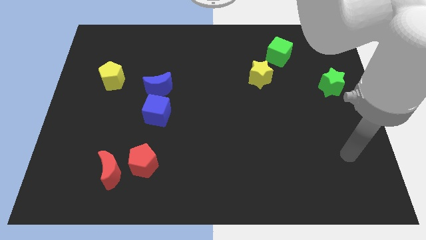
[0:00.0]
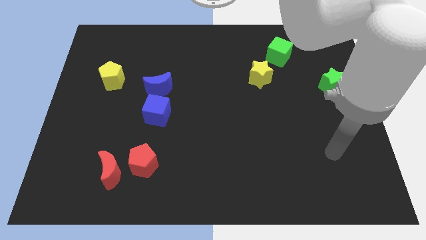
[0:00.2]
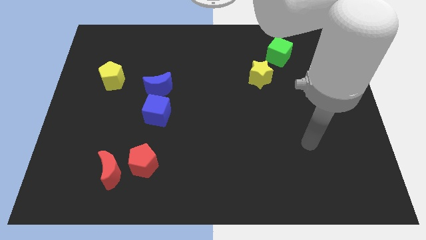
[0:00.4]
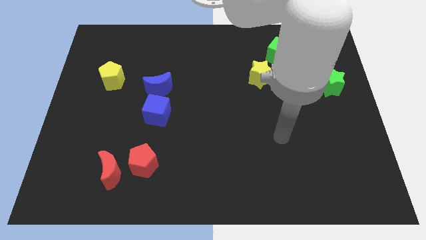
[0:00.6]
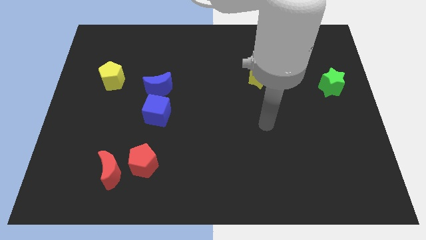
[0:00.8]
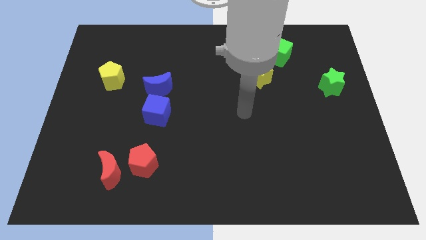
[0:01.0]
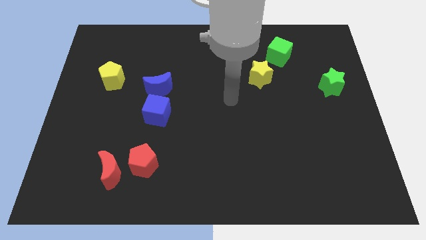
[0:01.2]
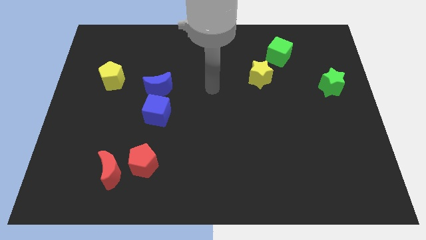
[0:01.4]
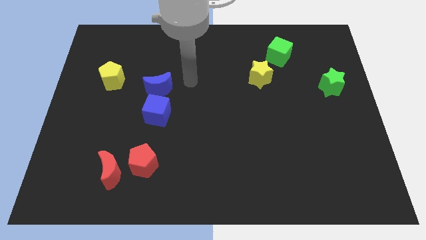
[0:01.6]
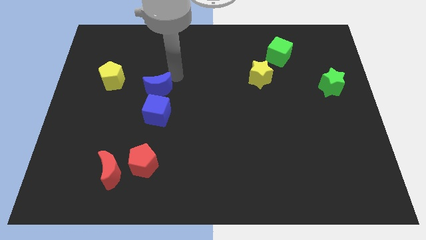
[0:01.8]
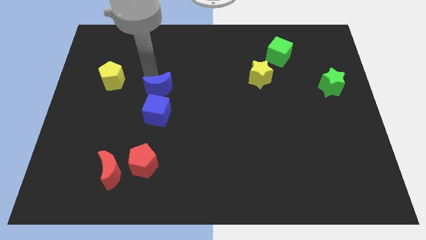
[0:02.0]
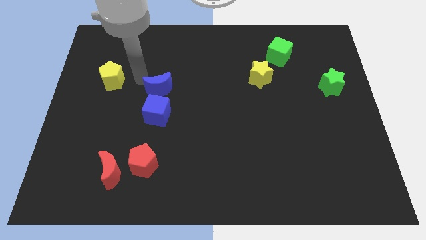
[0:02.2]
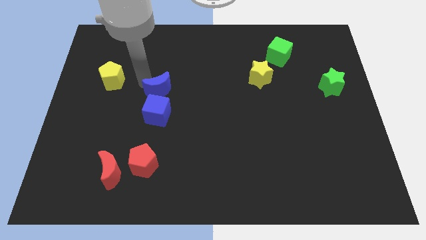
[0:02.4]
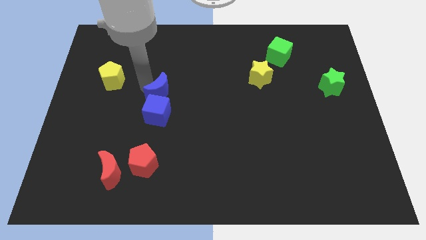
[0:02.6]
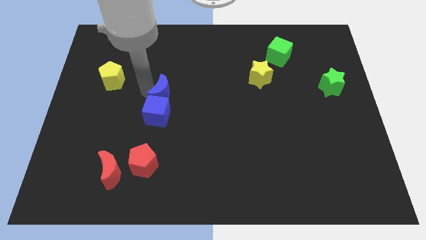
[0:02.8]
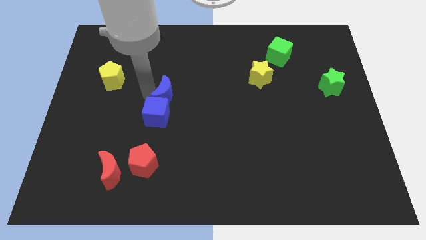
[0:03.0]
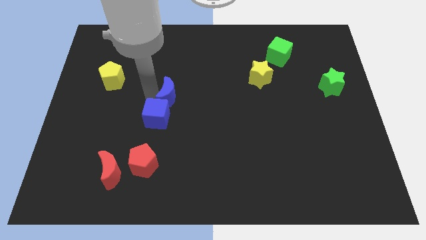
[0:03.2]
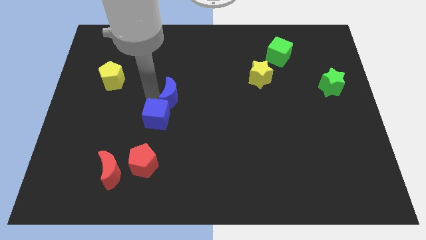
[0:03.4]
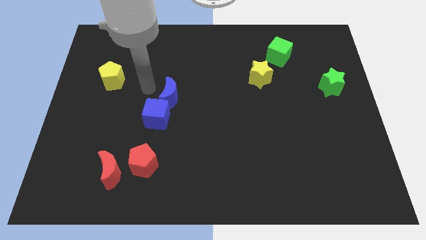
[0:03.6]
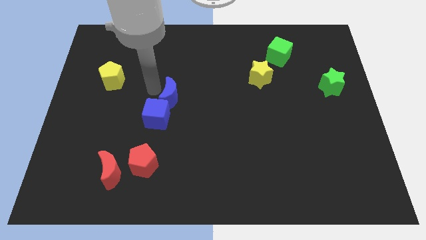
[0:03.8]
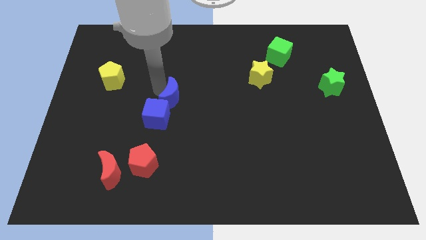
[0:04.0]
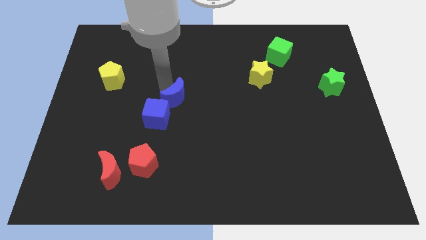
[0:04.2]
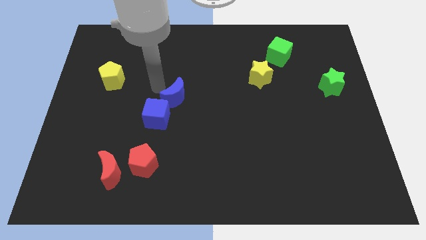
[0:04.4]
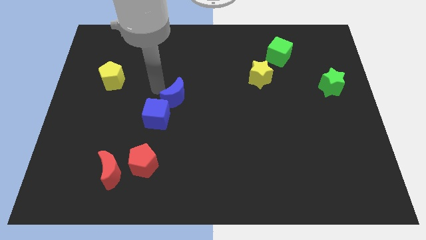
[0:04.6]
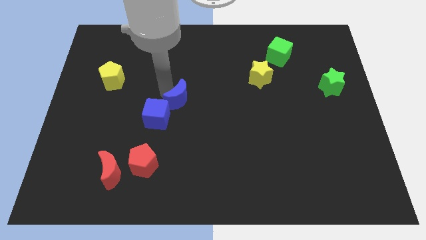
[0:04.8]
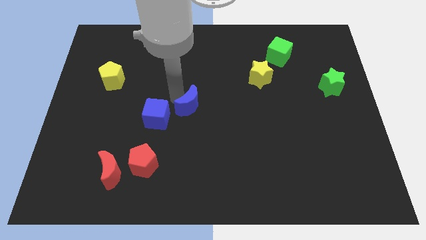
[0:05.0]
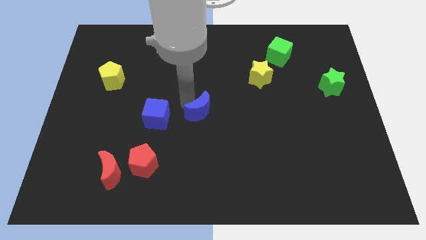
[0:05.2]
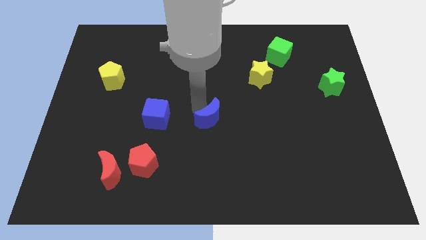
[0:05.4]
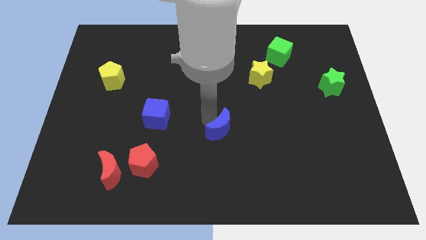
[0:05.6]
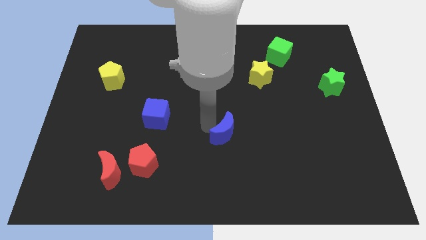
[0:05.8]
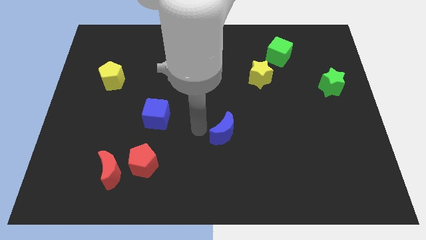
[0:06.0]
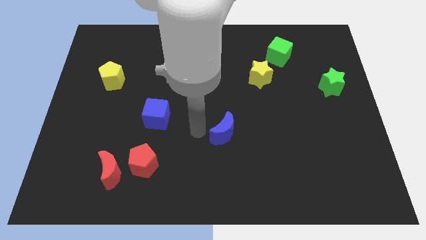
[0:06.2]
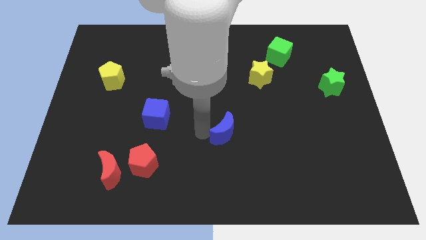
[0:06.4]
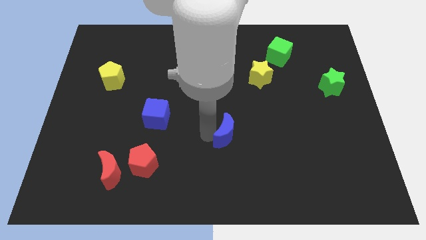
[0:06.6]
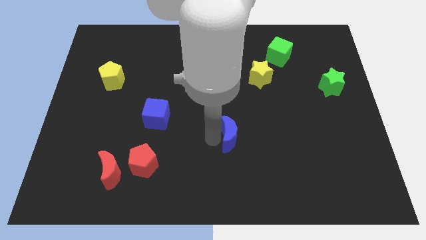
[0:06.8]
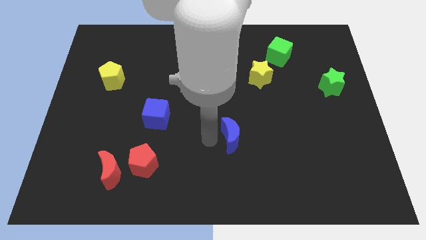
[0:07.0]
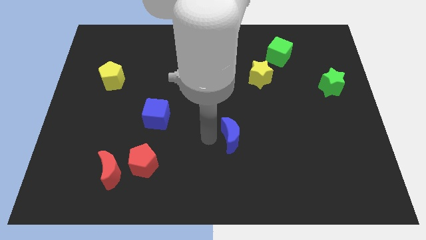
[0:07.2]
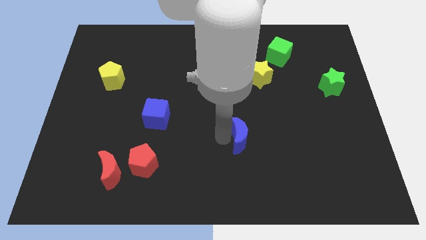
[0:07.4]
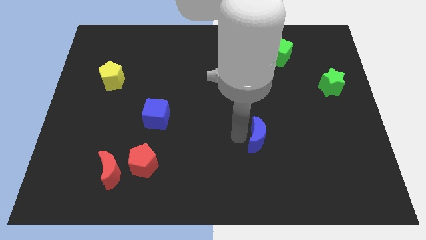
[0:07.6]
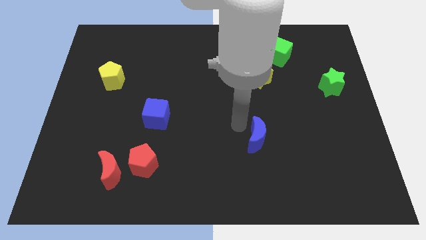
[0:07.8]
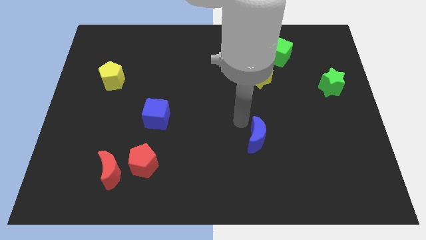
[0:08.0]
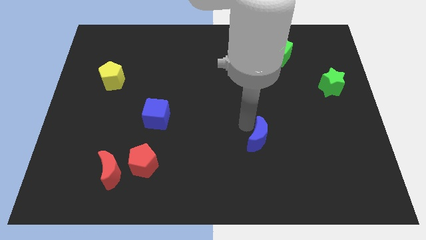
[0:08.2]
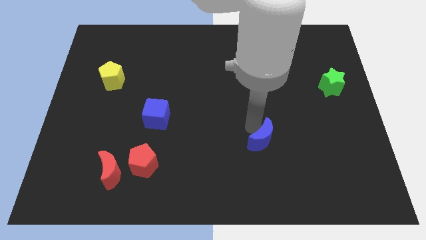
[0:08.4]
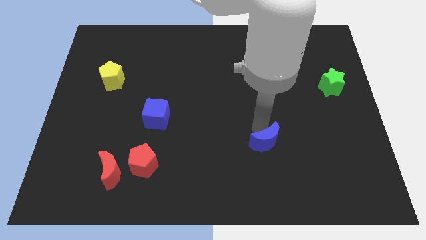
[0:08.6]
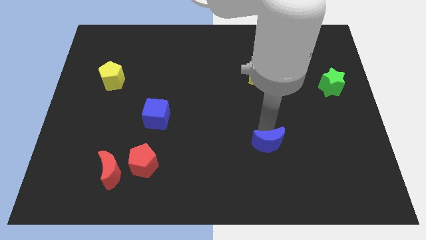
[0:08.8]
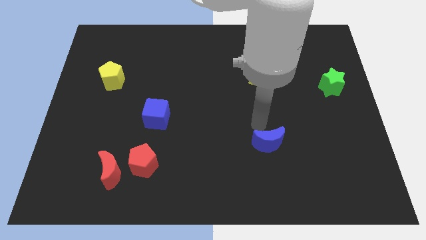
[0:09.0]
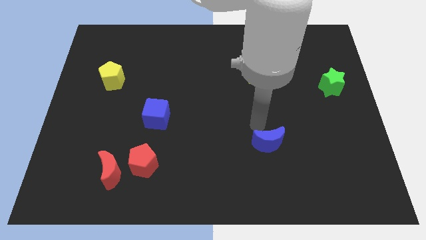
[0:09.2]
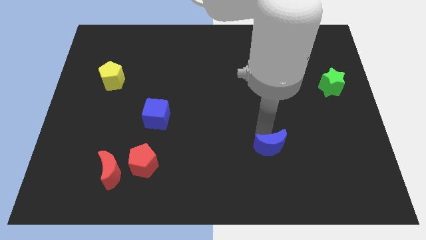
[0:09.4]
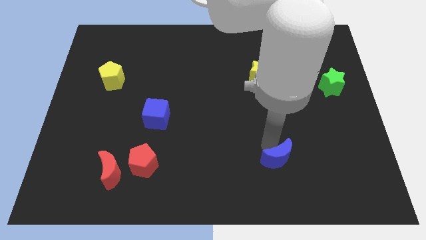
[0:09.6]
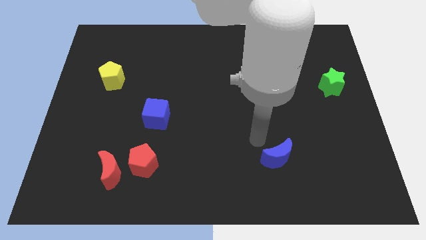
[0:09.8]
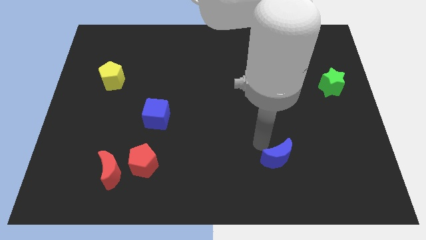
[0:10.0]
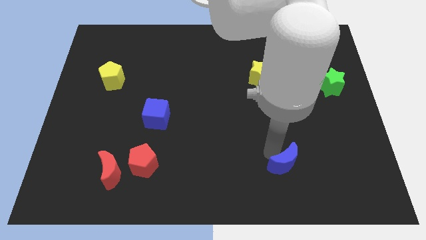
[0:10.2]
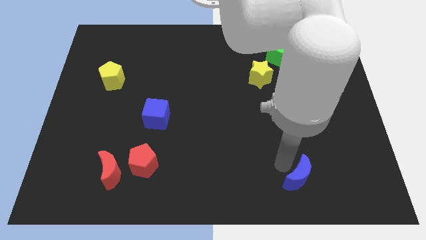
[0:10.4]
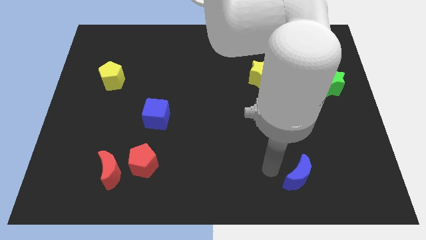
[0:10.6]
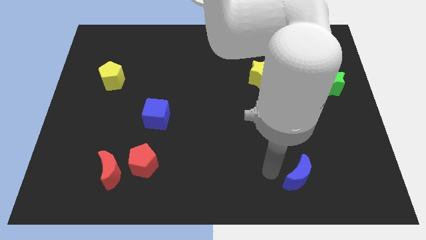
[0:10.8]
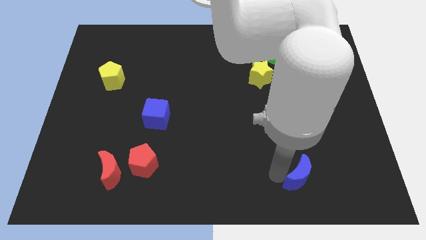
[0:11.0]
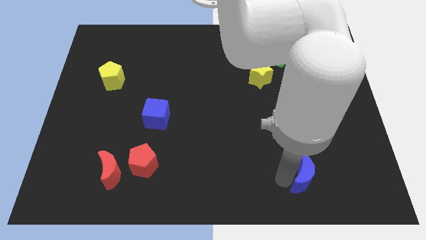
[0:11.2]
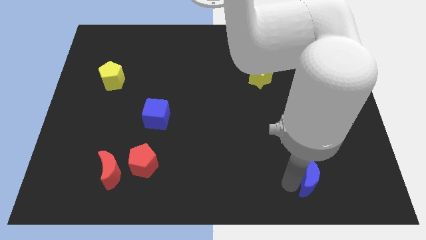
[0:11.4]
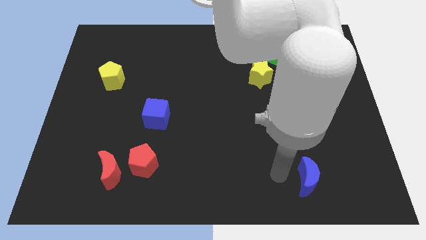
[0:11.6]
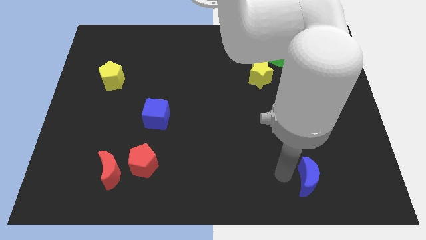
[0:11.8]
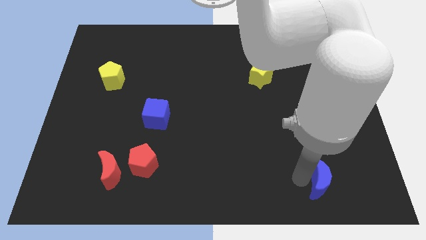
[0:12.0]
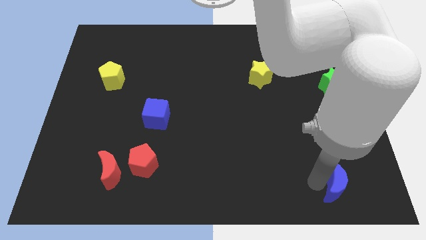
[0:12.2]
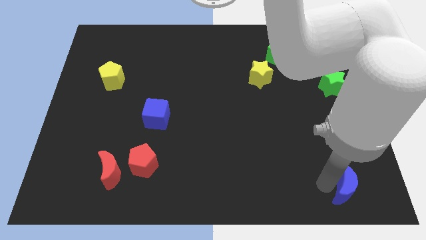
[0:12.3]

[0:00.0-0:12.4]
move the blue moon to the bottom right corner

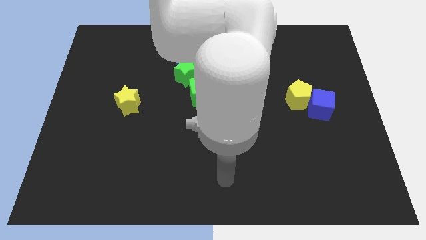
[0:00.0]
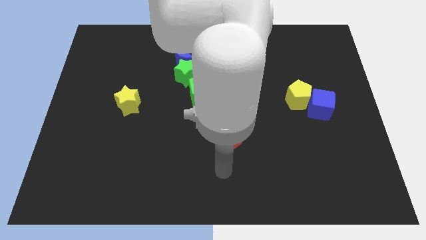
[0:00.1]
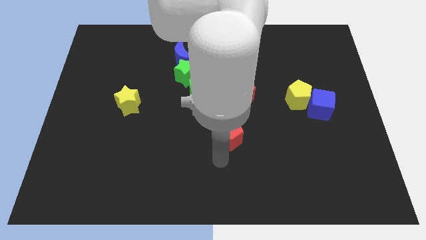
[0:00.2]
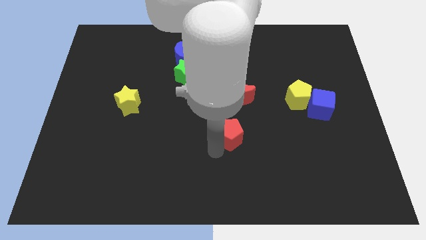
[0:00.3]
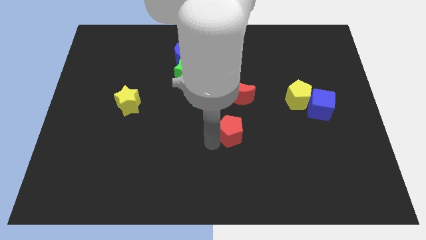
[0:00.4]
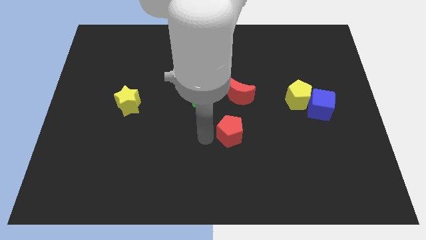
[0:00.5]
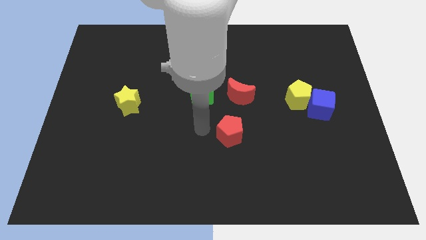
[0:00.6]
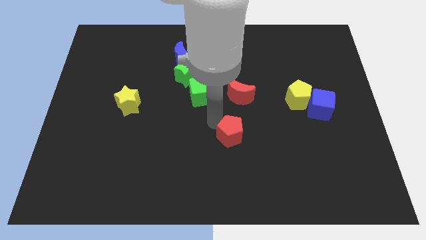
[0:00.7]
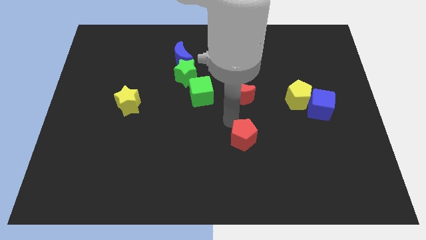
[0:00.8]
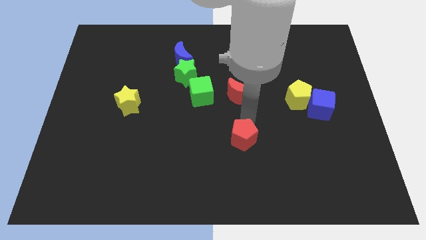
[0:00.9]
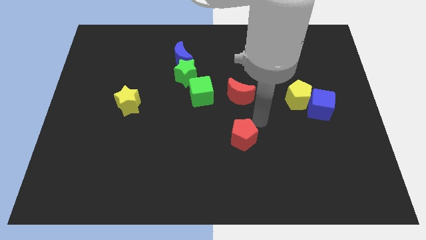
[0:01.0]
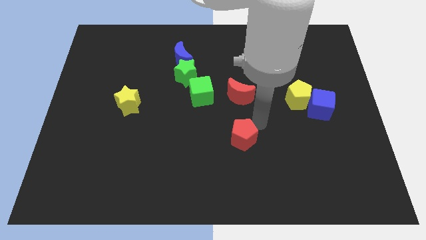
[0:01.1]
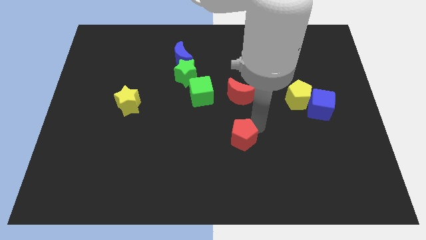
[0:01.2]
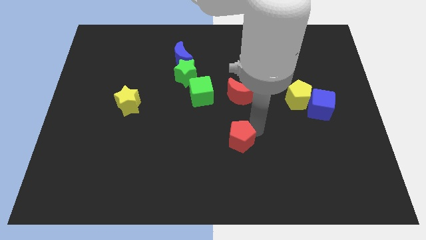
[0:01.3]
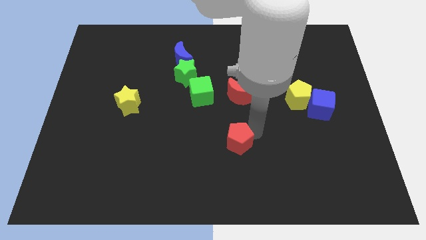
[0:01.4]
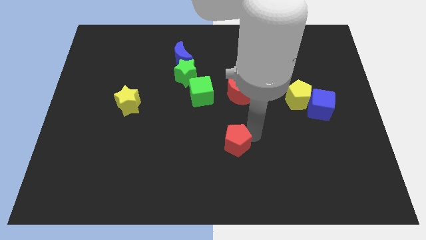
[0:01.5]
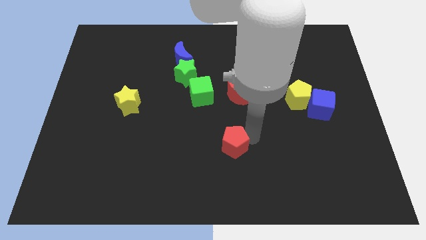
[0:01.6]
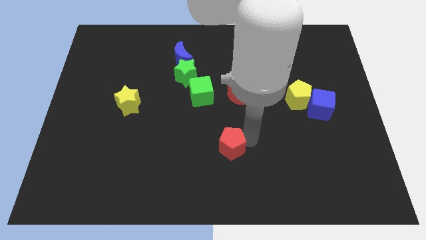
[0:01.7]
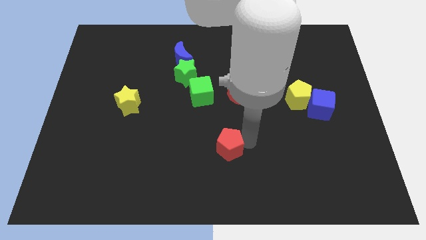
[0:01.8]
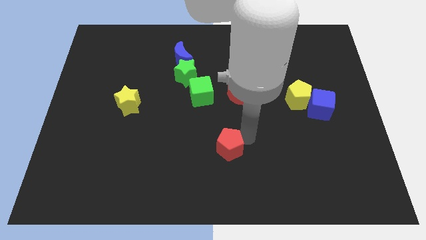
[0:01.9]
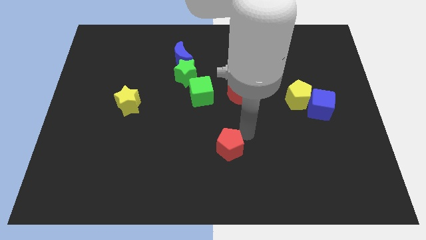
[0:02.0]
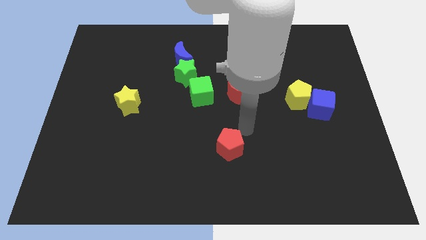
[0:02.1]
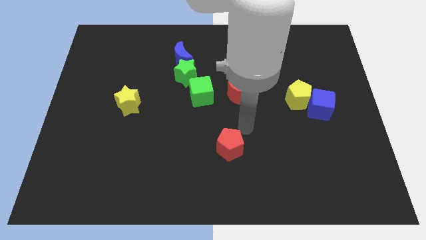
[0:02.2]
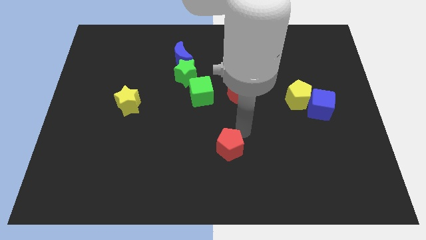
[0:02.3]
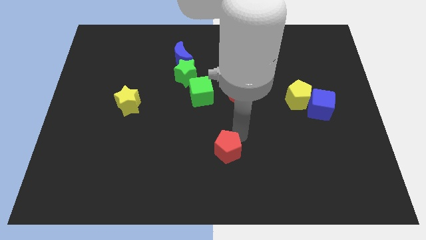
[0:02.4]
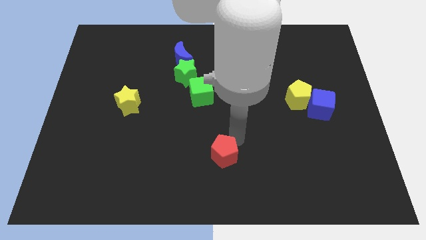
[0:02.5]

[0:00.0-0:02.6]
slide the red pentagon to the bottom
